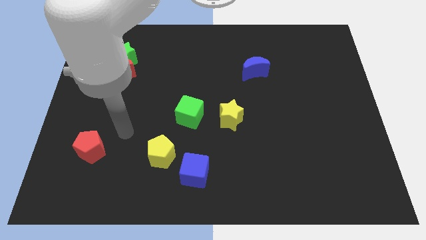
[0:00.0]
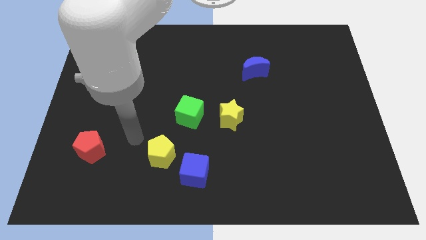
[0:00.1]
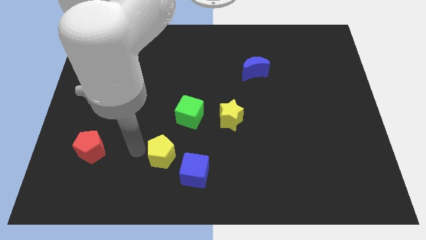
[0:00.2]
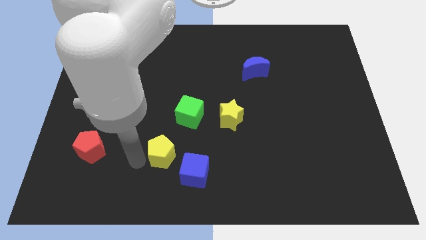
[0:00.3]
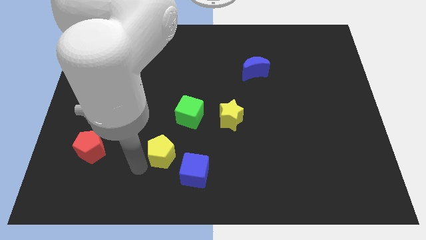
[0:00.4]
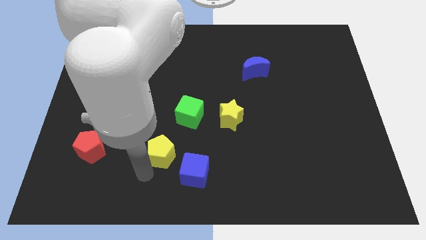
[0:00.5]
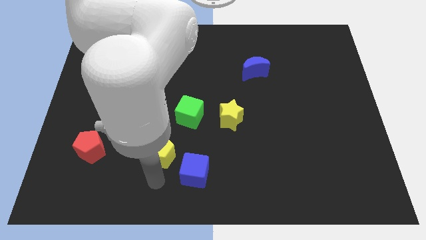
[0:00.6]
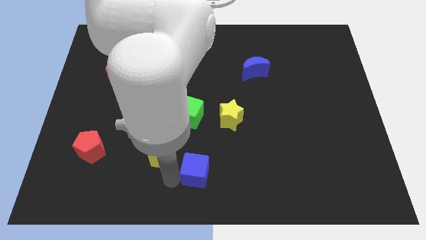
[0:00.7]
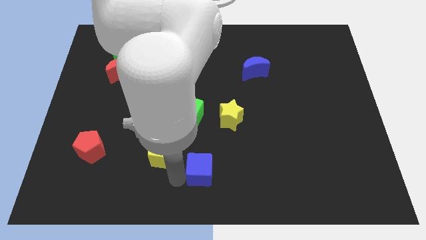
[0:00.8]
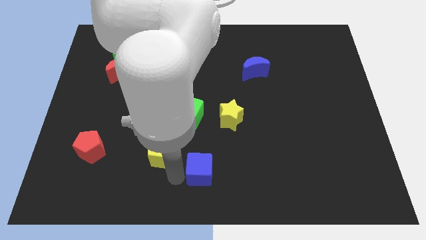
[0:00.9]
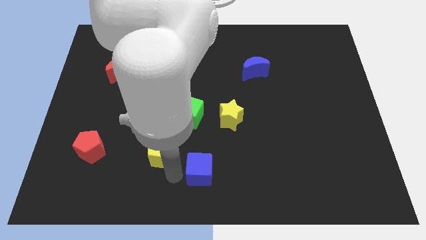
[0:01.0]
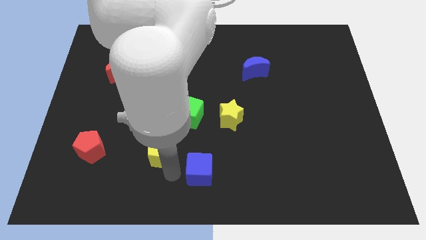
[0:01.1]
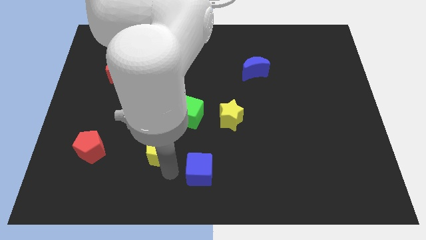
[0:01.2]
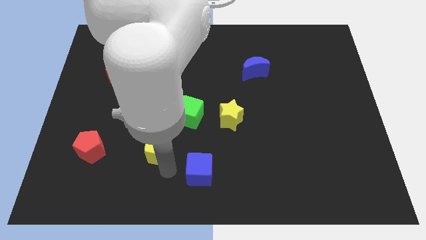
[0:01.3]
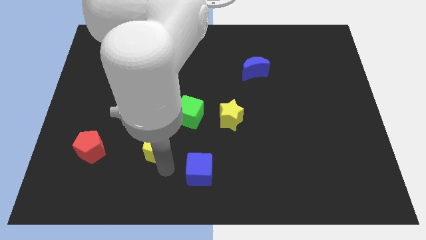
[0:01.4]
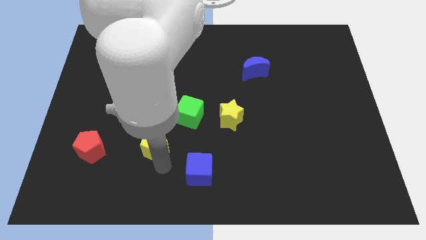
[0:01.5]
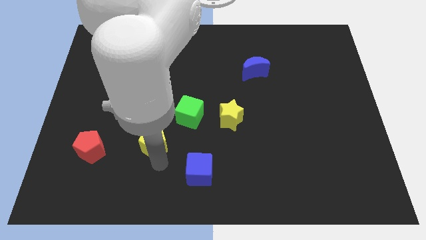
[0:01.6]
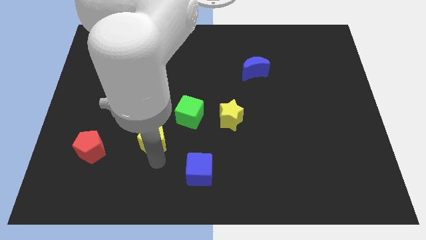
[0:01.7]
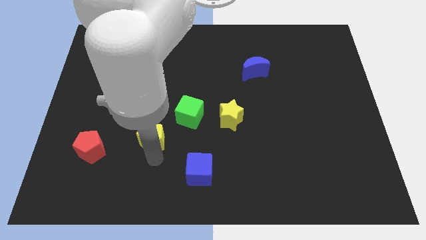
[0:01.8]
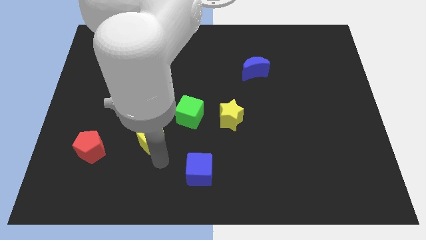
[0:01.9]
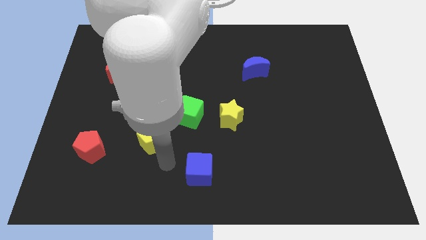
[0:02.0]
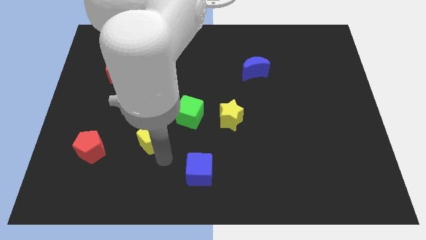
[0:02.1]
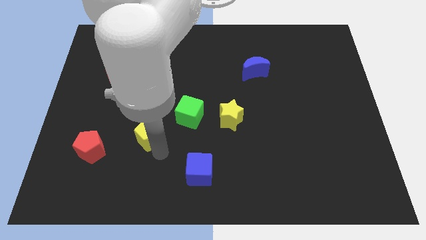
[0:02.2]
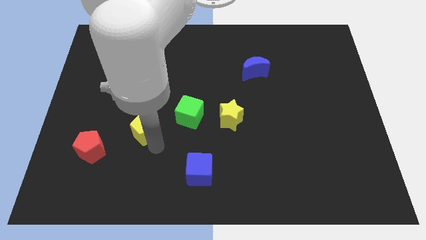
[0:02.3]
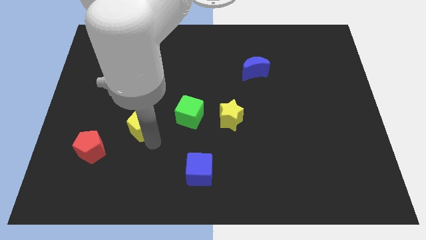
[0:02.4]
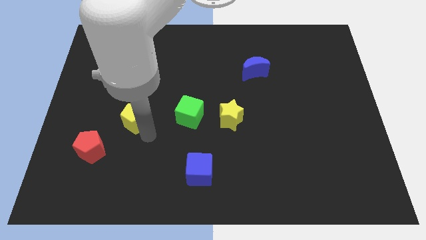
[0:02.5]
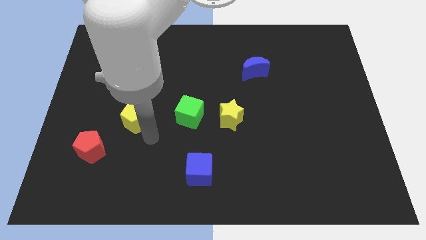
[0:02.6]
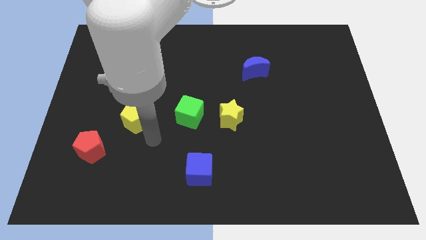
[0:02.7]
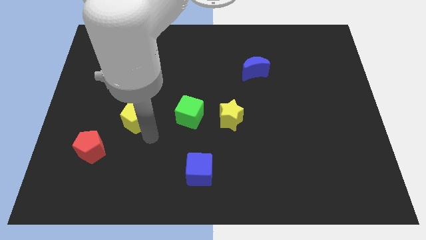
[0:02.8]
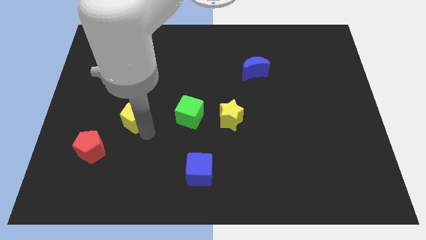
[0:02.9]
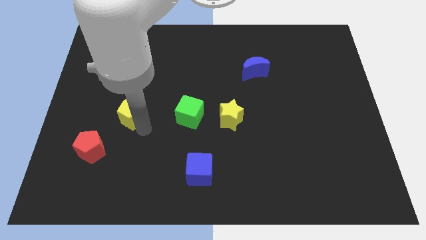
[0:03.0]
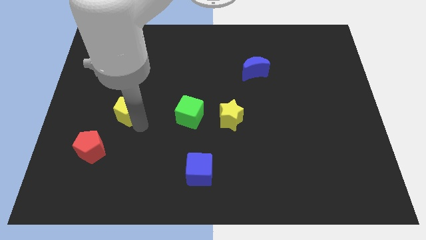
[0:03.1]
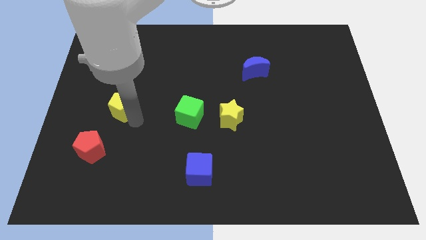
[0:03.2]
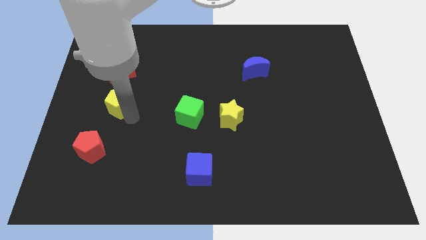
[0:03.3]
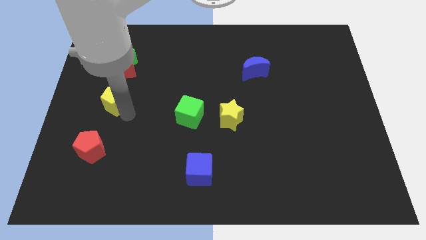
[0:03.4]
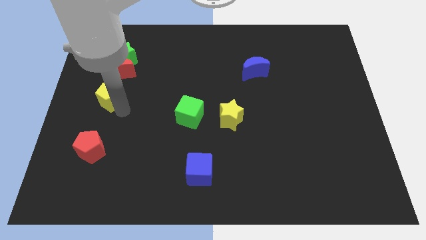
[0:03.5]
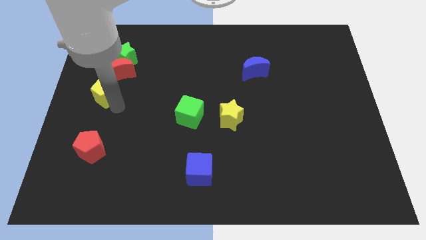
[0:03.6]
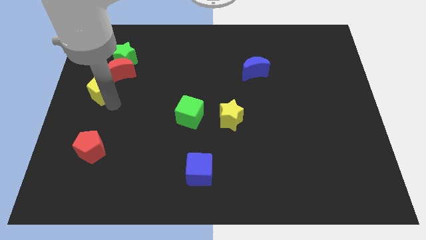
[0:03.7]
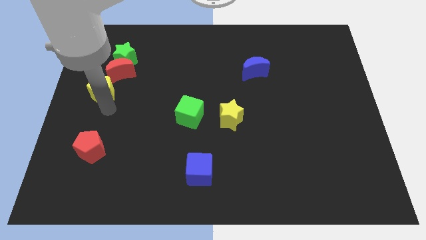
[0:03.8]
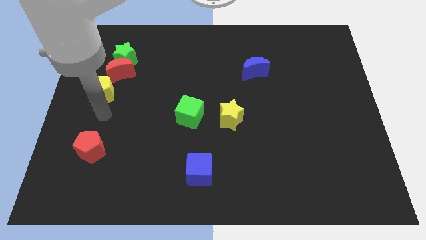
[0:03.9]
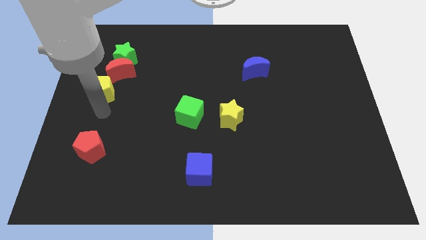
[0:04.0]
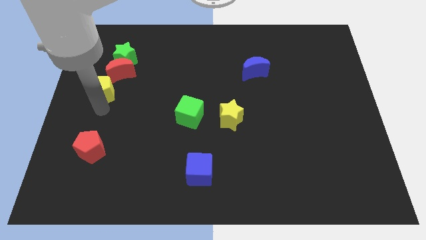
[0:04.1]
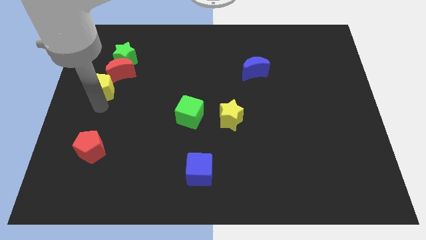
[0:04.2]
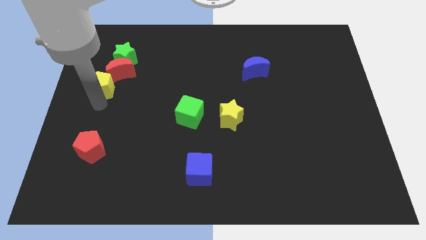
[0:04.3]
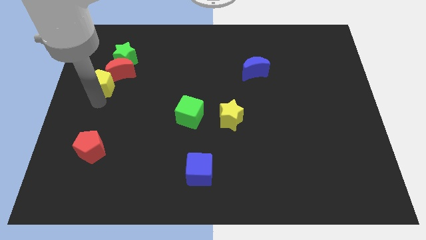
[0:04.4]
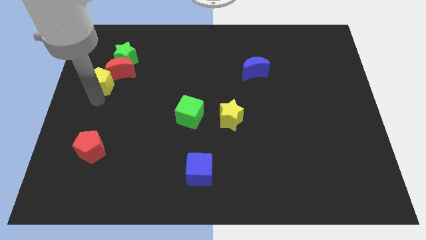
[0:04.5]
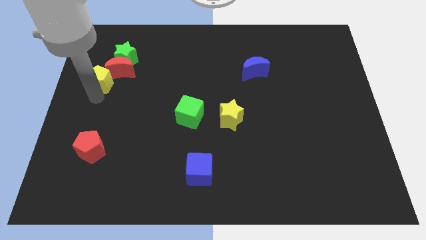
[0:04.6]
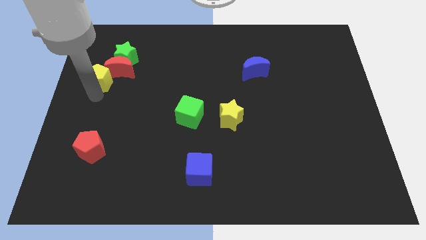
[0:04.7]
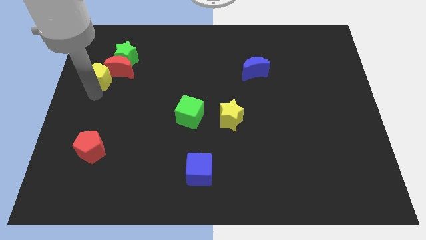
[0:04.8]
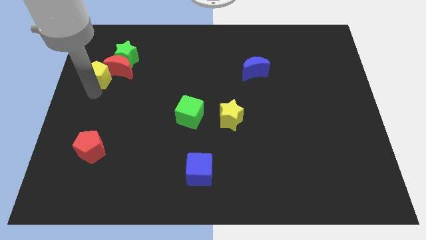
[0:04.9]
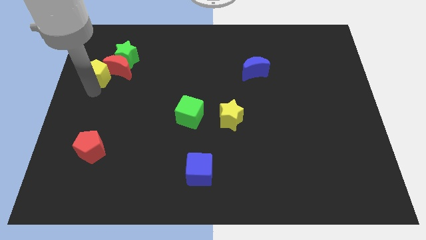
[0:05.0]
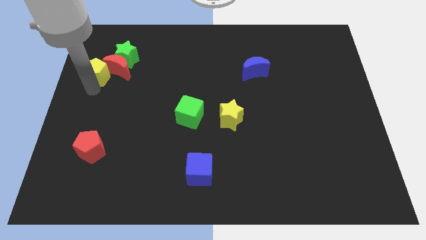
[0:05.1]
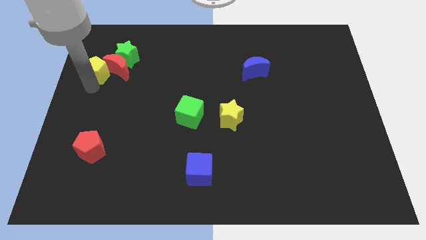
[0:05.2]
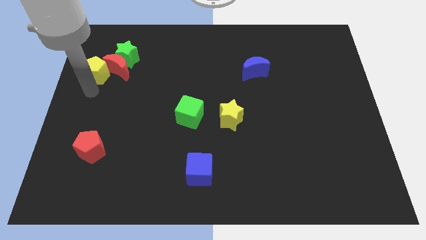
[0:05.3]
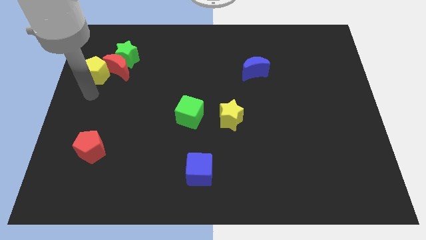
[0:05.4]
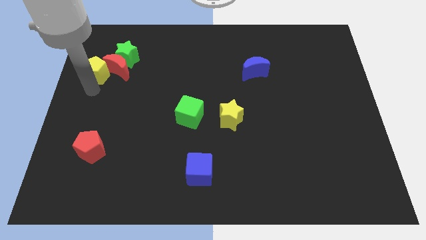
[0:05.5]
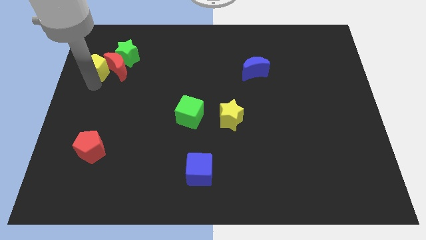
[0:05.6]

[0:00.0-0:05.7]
slide the yellow pentagon to the top left of the red moon
